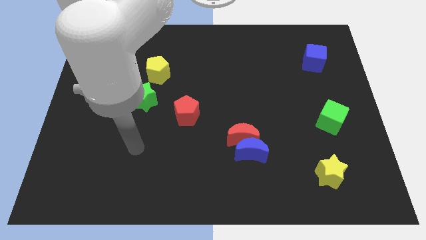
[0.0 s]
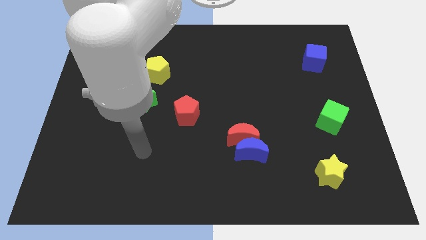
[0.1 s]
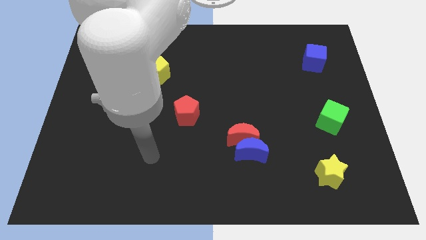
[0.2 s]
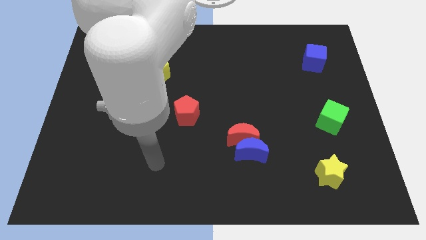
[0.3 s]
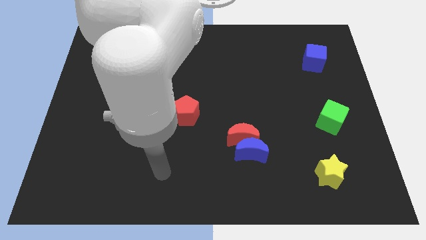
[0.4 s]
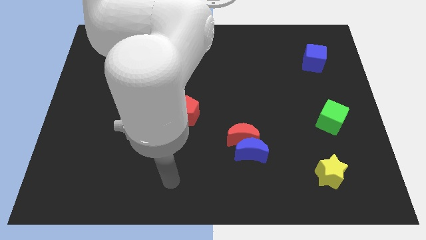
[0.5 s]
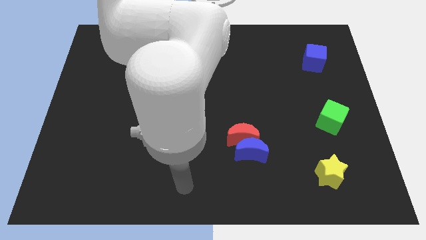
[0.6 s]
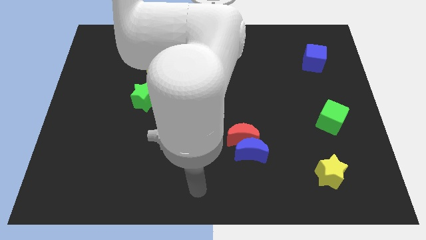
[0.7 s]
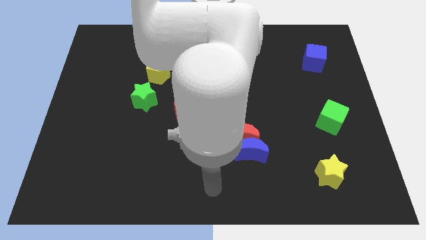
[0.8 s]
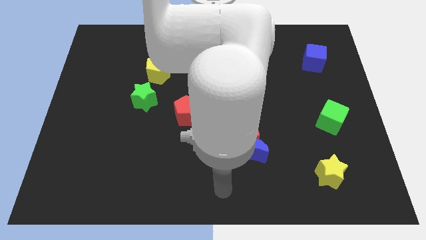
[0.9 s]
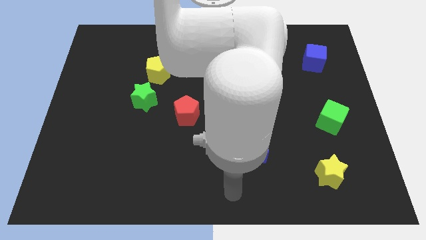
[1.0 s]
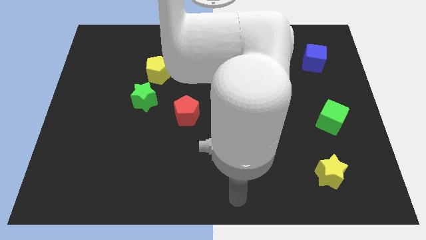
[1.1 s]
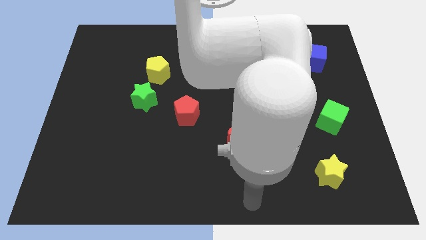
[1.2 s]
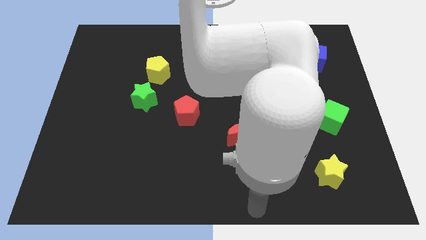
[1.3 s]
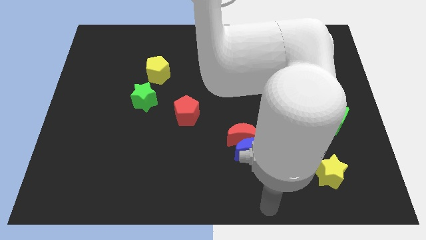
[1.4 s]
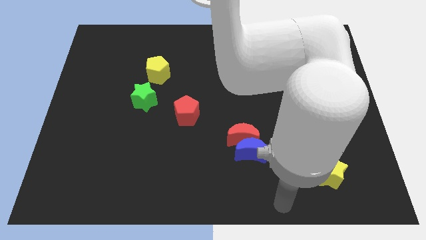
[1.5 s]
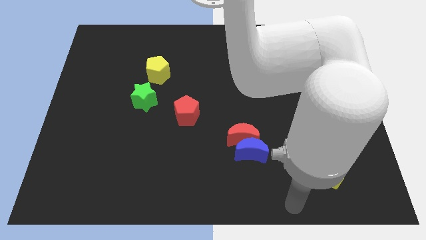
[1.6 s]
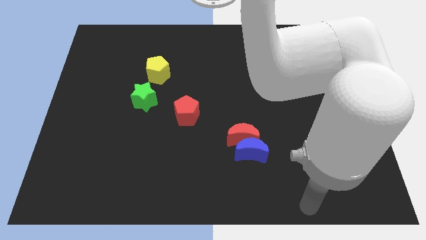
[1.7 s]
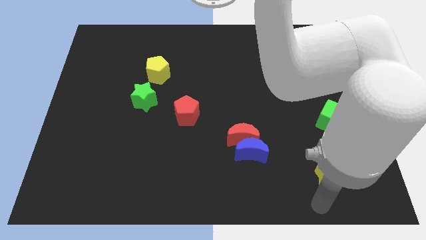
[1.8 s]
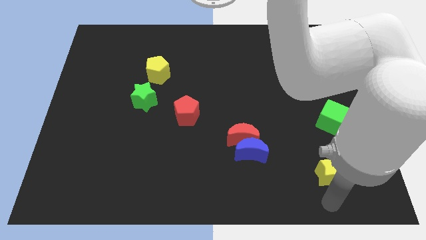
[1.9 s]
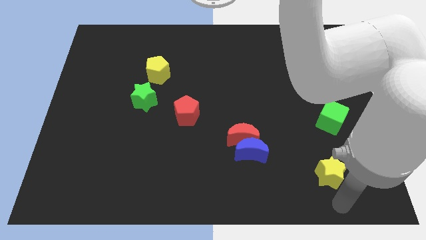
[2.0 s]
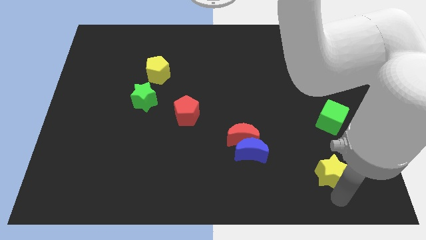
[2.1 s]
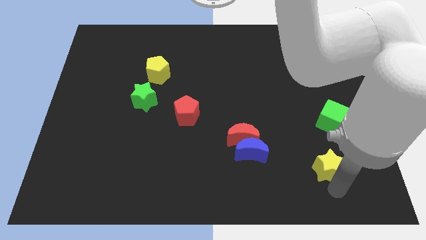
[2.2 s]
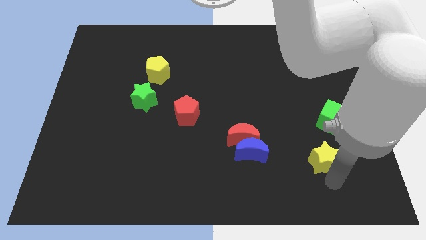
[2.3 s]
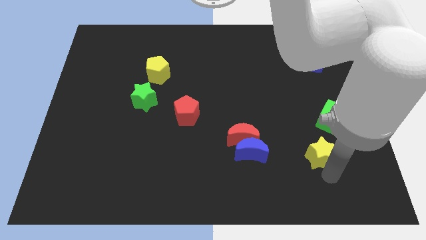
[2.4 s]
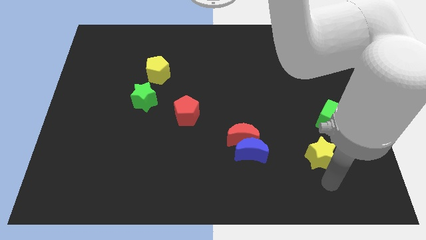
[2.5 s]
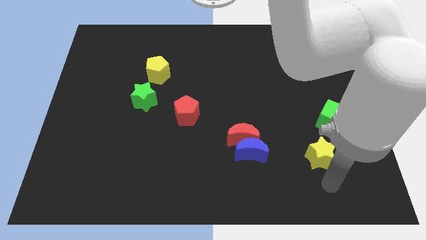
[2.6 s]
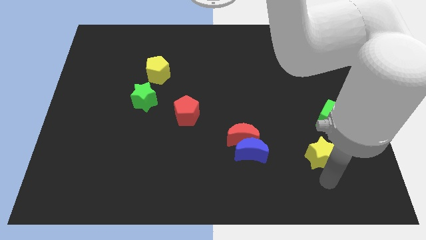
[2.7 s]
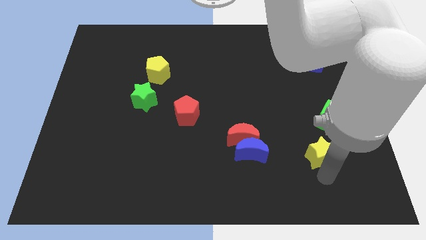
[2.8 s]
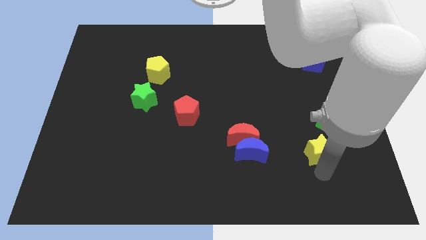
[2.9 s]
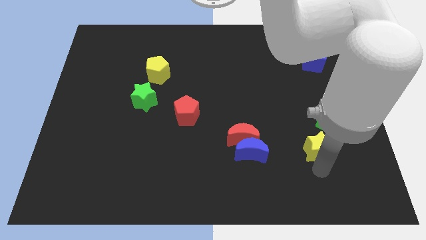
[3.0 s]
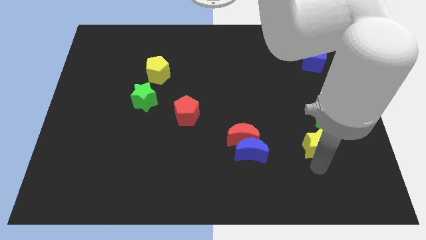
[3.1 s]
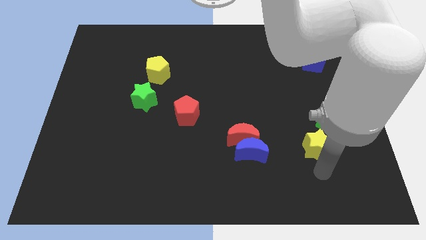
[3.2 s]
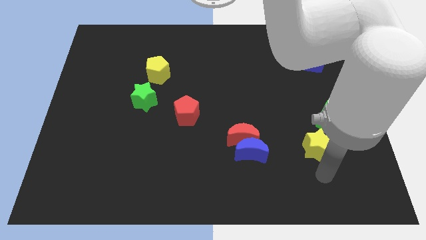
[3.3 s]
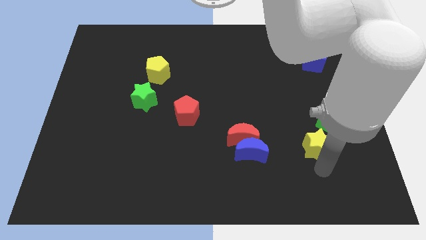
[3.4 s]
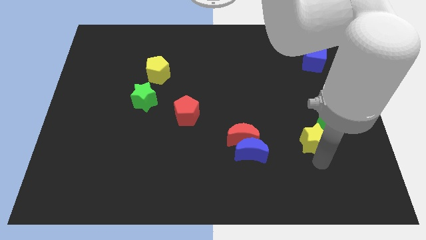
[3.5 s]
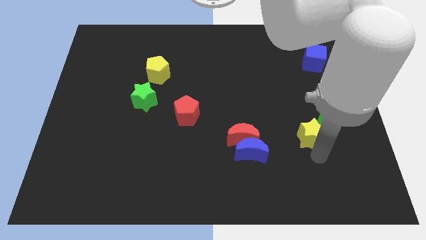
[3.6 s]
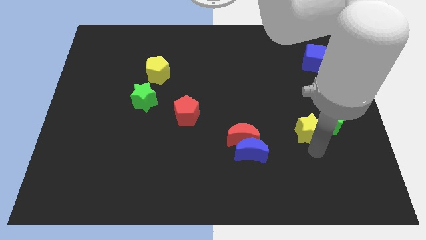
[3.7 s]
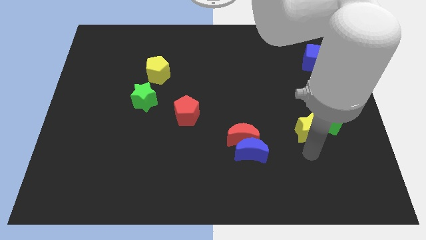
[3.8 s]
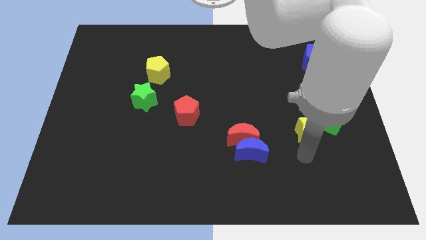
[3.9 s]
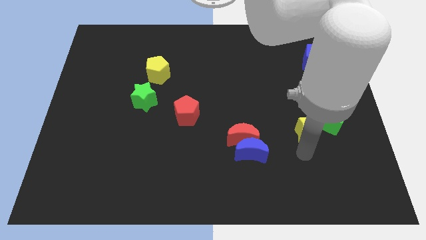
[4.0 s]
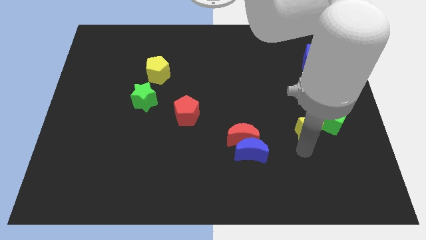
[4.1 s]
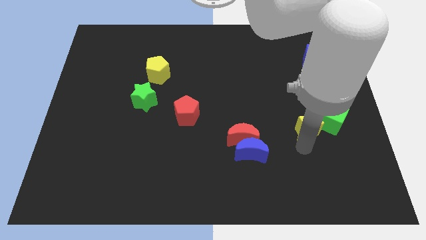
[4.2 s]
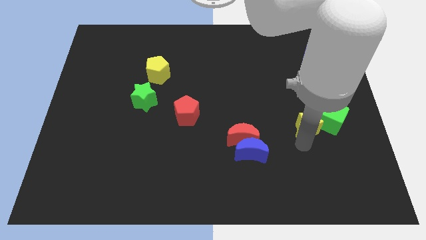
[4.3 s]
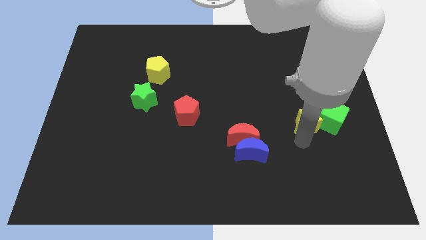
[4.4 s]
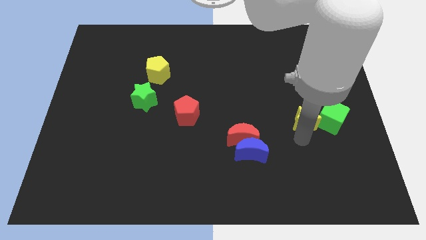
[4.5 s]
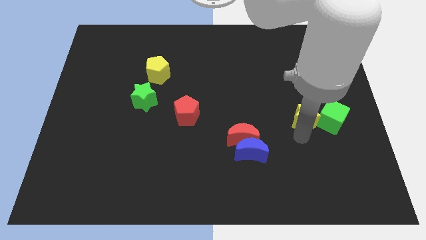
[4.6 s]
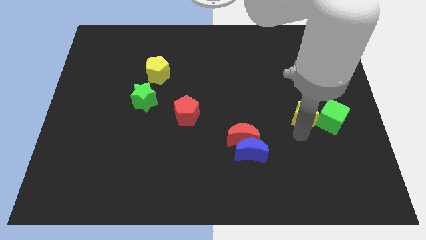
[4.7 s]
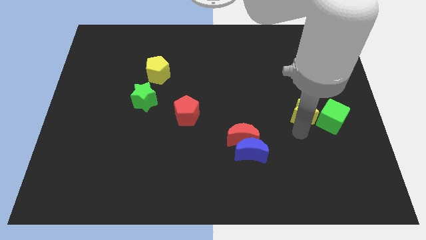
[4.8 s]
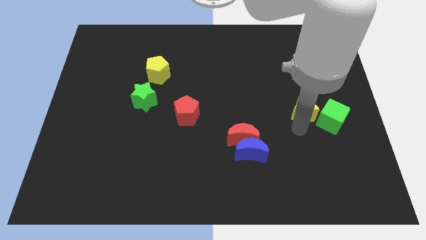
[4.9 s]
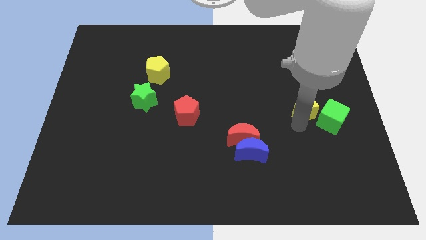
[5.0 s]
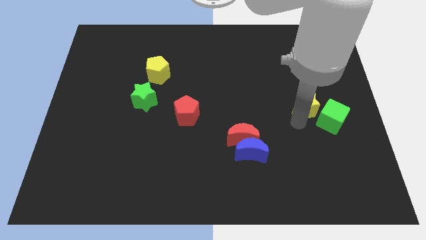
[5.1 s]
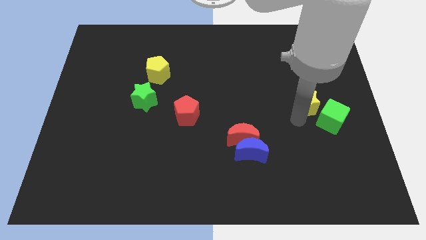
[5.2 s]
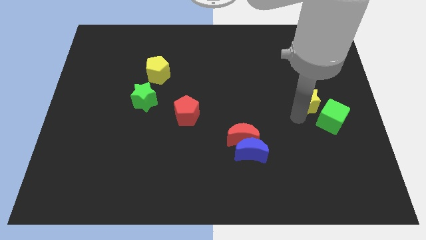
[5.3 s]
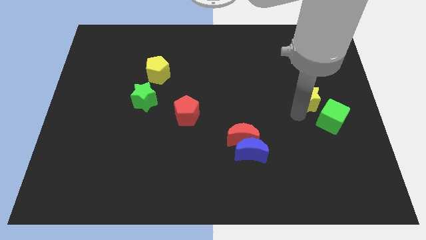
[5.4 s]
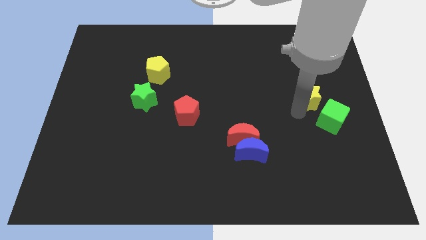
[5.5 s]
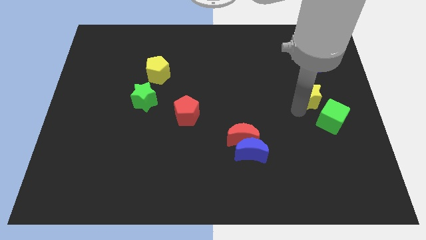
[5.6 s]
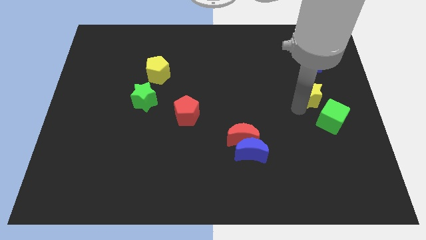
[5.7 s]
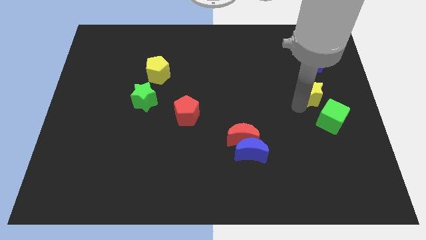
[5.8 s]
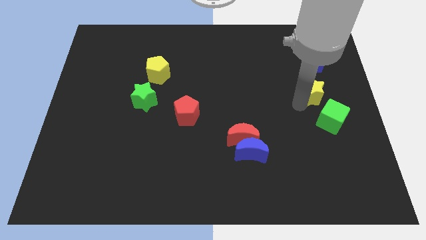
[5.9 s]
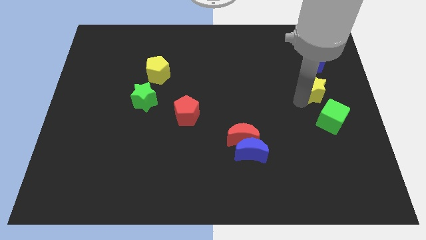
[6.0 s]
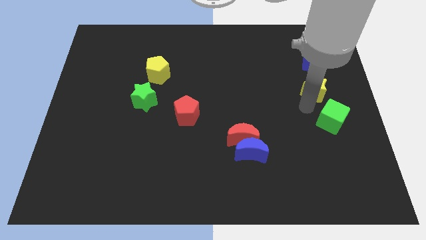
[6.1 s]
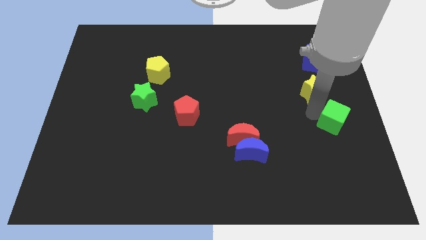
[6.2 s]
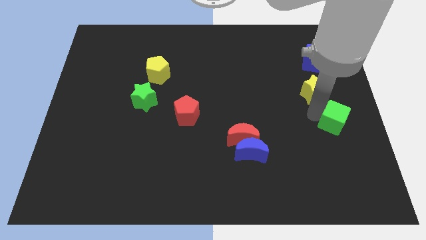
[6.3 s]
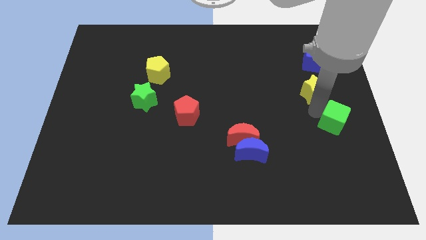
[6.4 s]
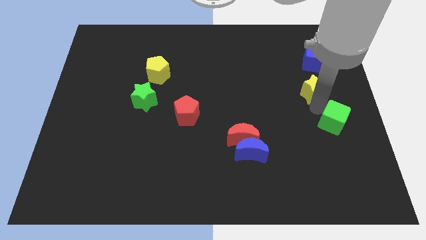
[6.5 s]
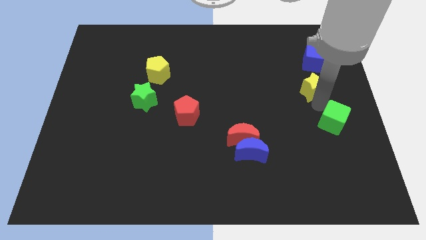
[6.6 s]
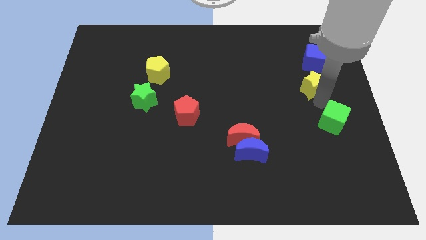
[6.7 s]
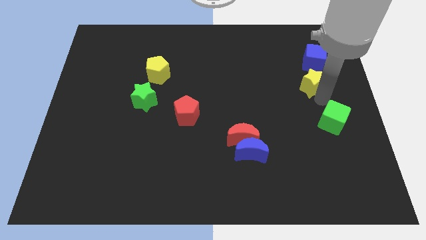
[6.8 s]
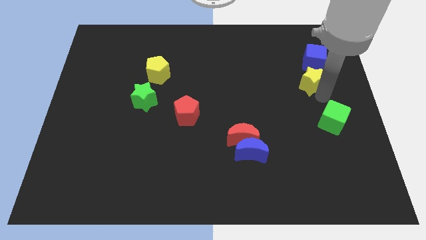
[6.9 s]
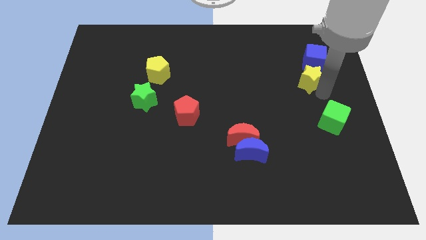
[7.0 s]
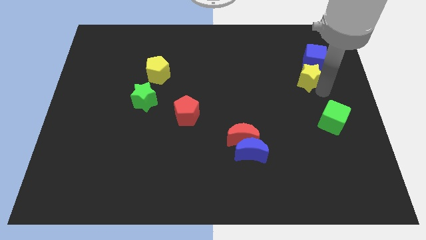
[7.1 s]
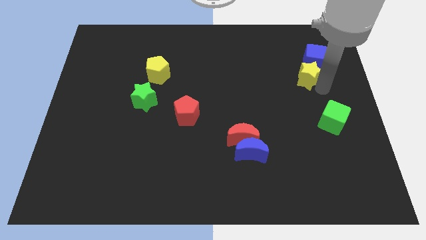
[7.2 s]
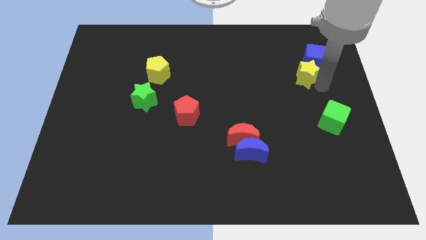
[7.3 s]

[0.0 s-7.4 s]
move the yellow star next to the blue cube
